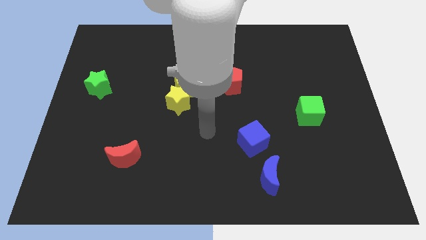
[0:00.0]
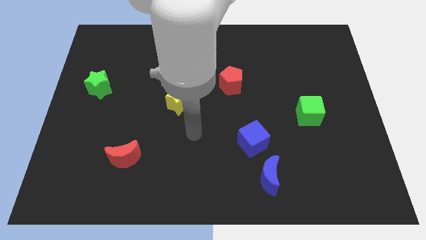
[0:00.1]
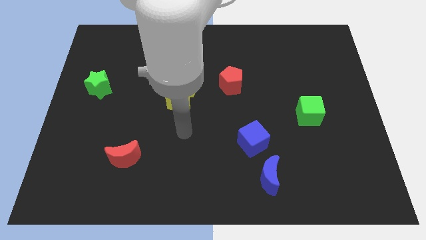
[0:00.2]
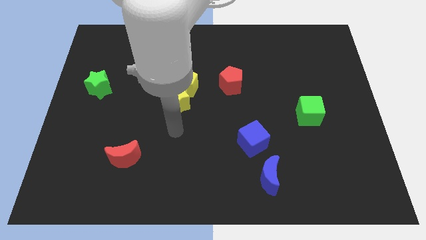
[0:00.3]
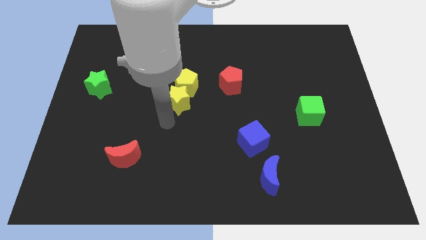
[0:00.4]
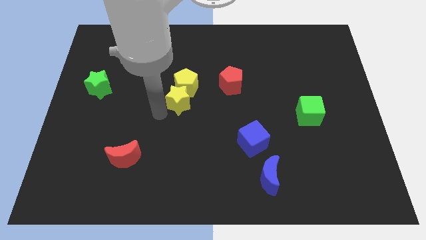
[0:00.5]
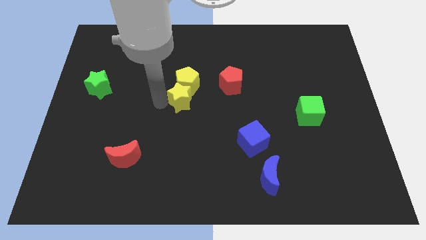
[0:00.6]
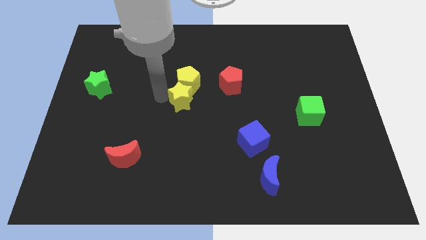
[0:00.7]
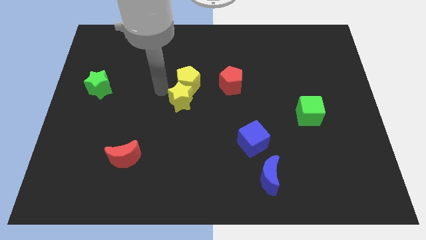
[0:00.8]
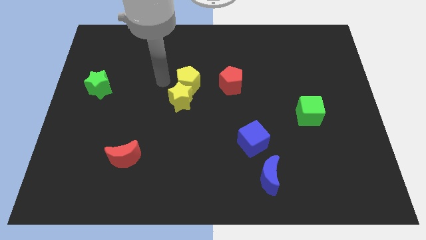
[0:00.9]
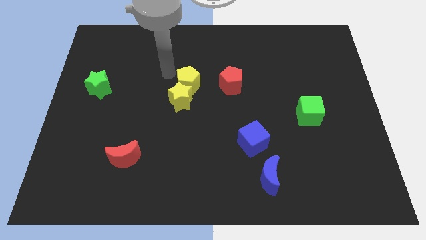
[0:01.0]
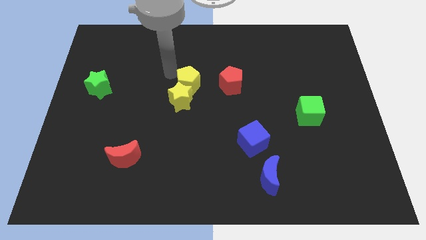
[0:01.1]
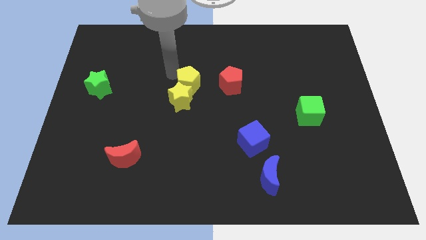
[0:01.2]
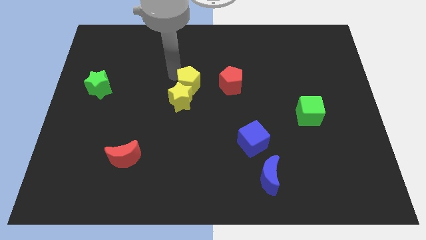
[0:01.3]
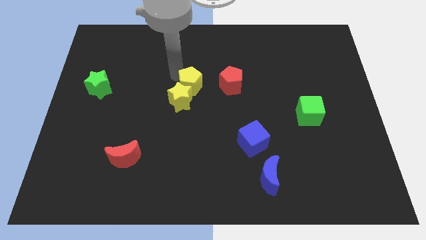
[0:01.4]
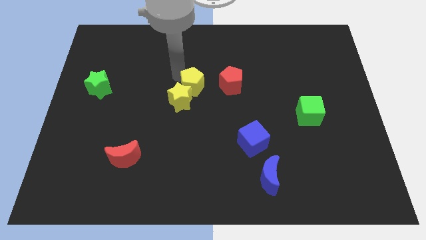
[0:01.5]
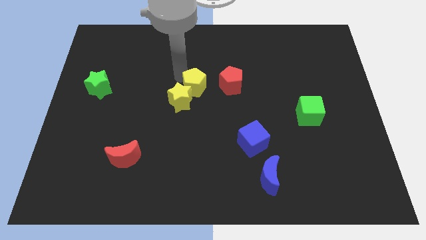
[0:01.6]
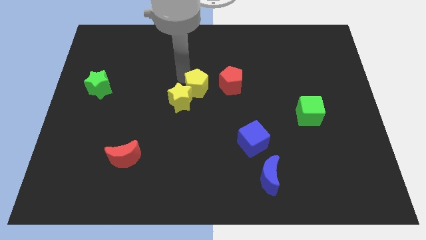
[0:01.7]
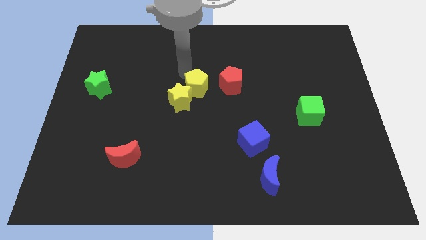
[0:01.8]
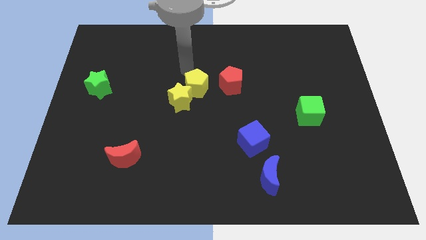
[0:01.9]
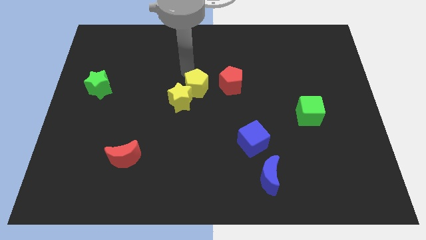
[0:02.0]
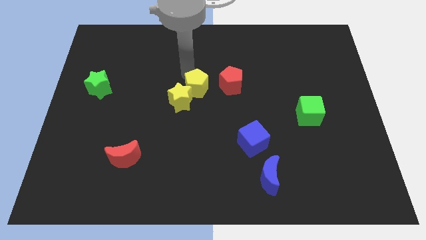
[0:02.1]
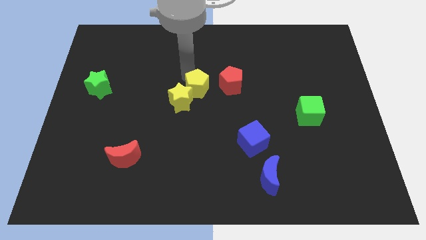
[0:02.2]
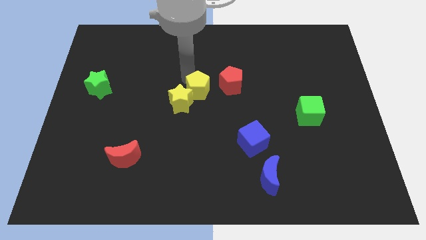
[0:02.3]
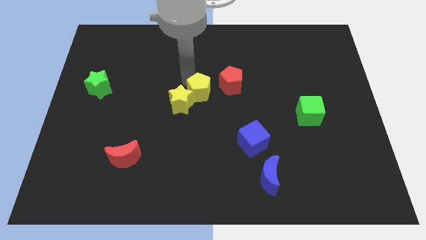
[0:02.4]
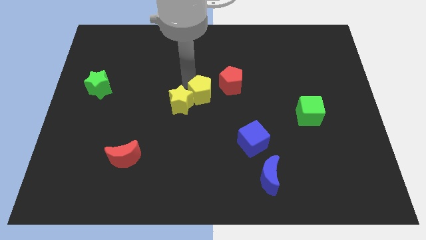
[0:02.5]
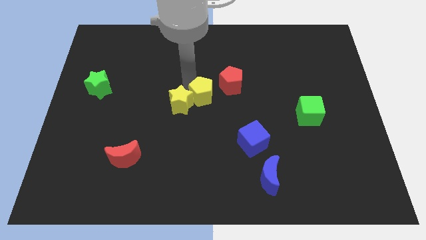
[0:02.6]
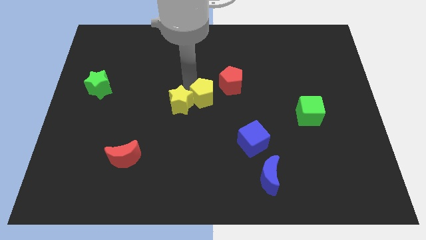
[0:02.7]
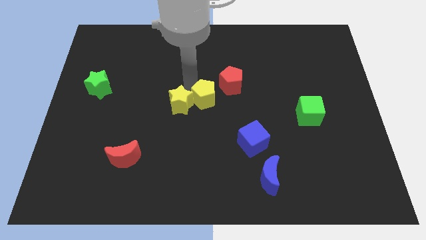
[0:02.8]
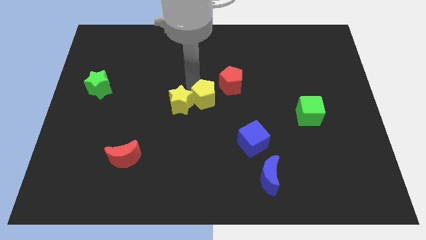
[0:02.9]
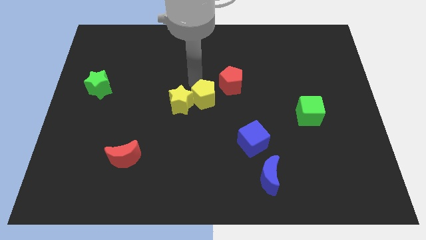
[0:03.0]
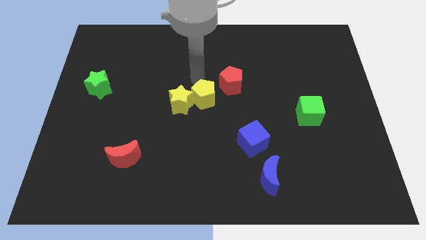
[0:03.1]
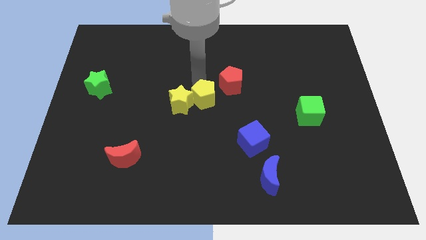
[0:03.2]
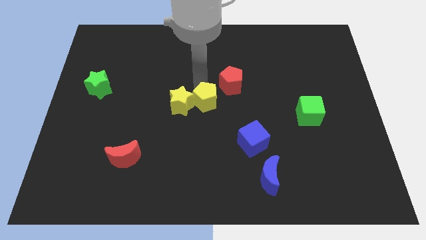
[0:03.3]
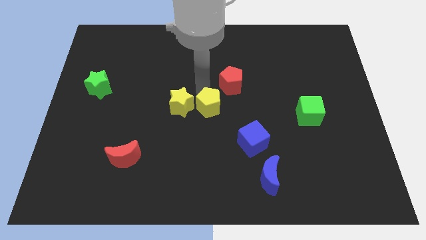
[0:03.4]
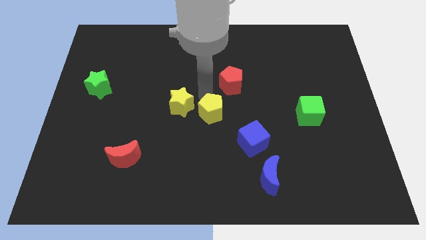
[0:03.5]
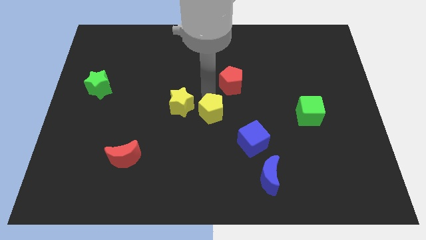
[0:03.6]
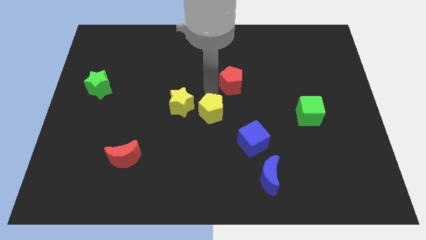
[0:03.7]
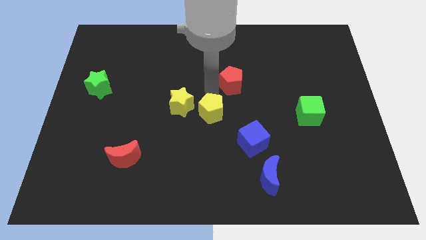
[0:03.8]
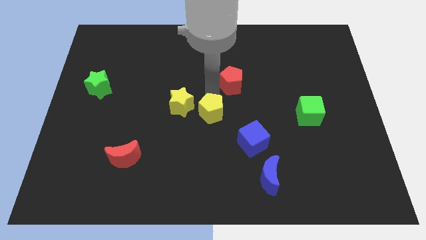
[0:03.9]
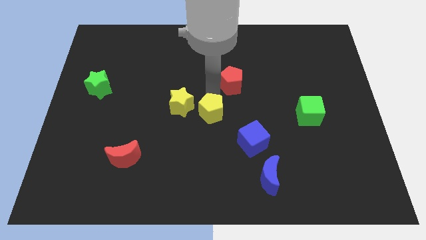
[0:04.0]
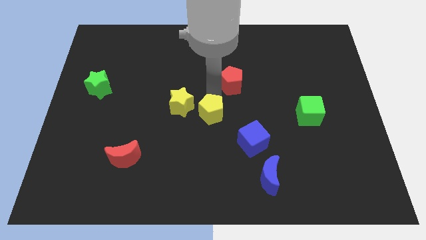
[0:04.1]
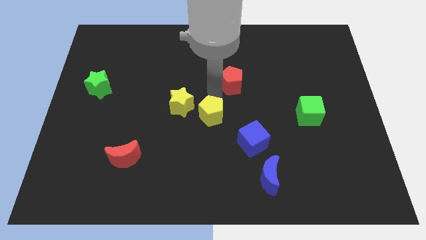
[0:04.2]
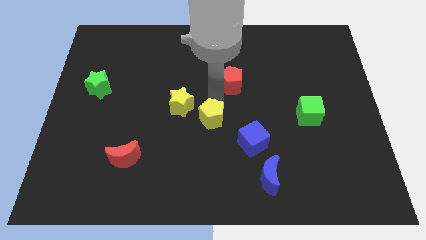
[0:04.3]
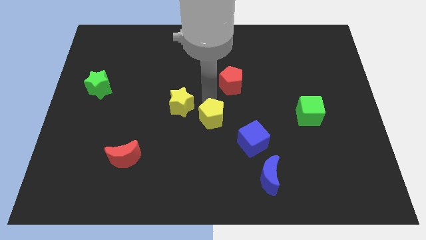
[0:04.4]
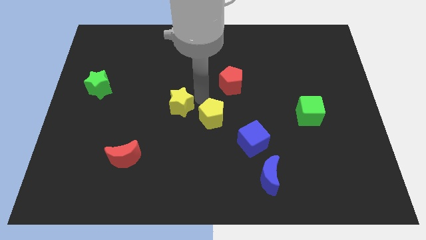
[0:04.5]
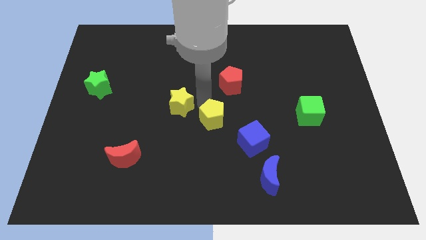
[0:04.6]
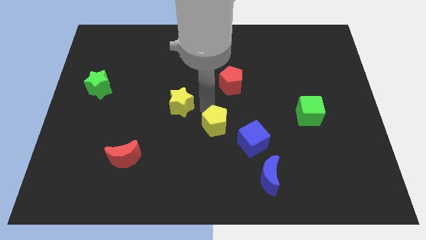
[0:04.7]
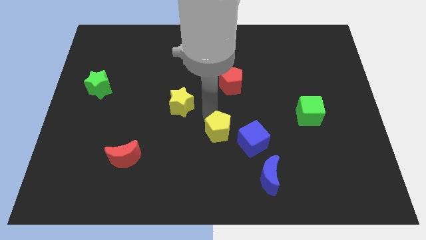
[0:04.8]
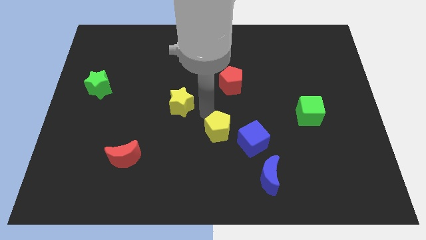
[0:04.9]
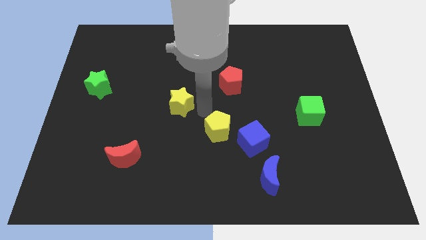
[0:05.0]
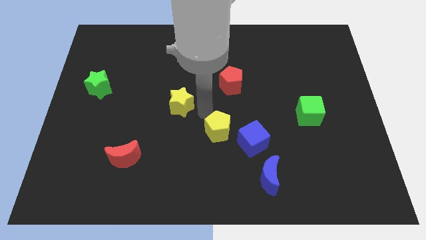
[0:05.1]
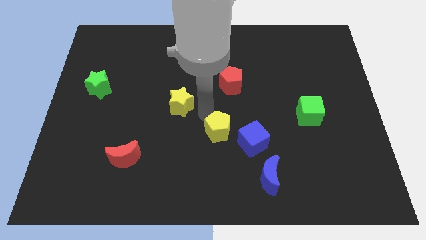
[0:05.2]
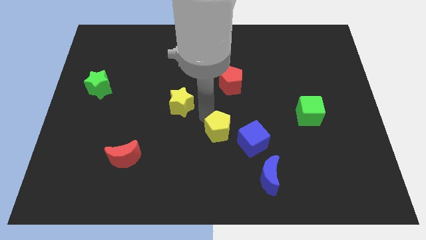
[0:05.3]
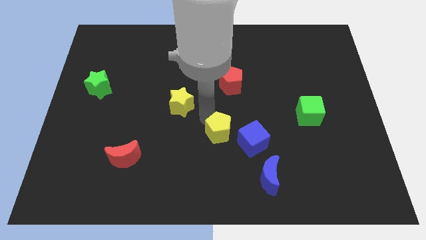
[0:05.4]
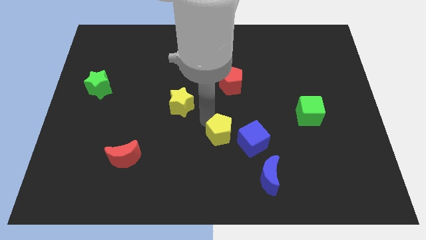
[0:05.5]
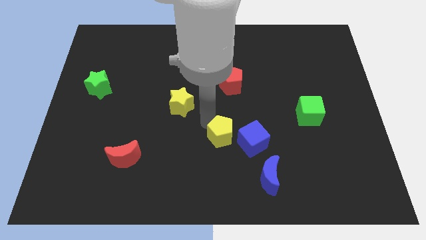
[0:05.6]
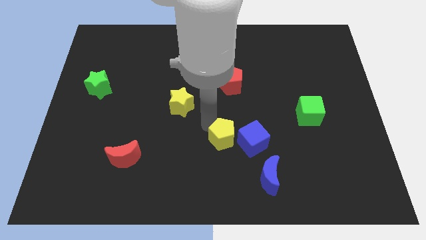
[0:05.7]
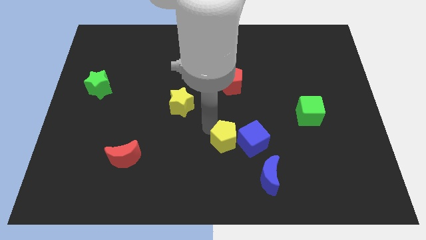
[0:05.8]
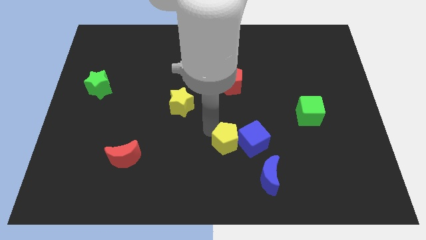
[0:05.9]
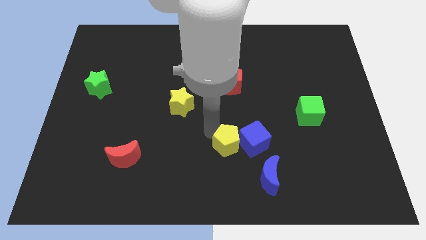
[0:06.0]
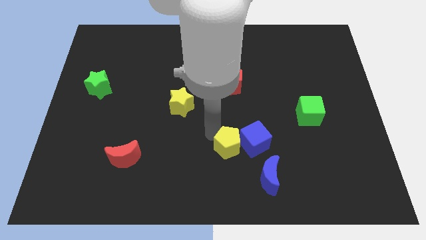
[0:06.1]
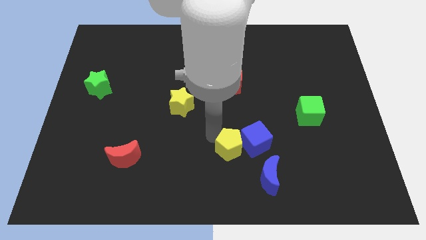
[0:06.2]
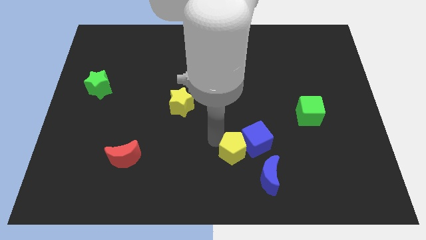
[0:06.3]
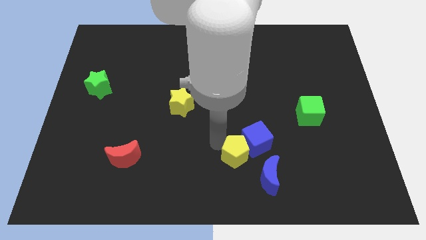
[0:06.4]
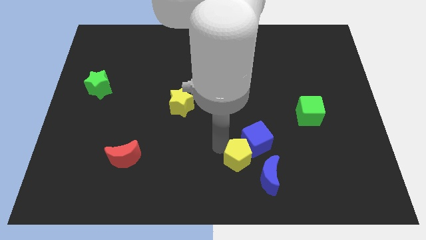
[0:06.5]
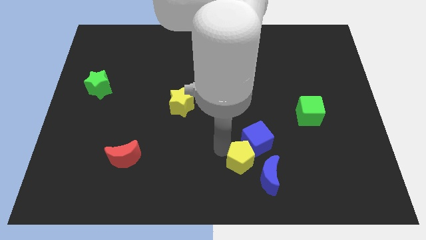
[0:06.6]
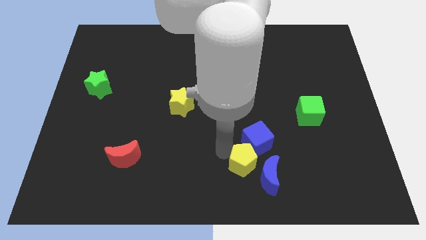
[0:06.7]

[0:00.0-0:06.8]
put the yellow pentagon to the blue moon

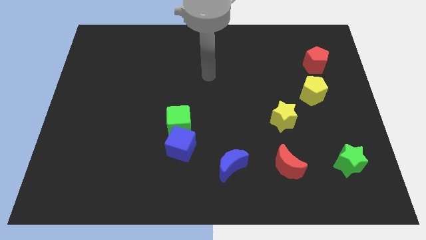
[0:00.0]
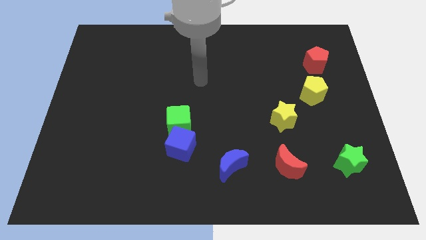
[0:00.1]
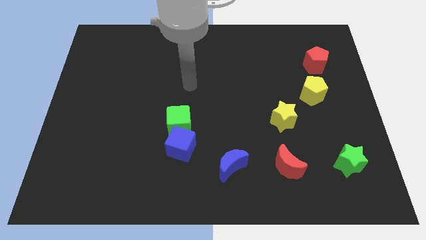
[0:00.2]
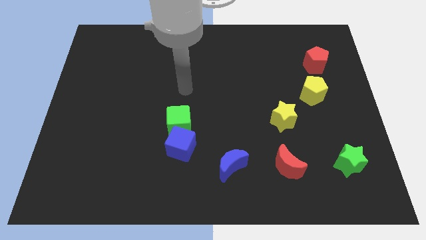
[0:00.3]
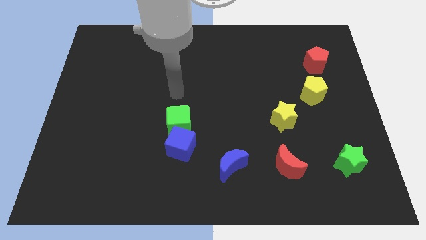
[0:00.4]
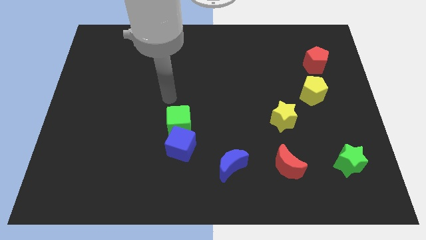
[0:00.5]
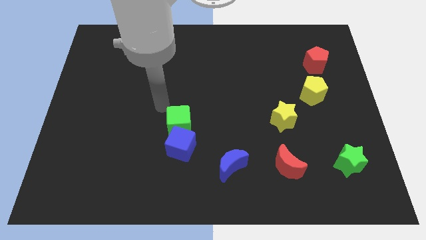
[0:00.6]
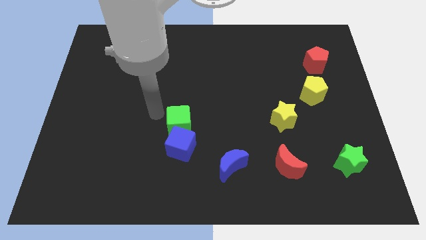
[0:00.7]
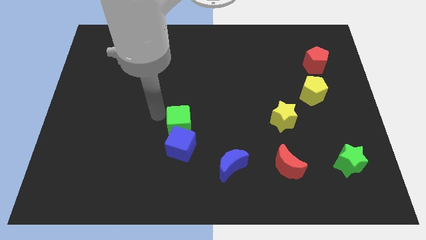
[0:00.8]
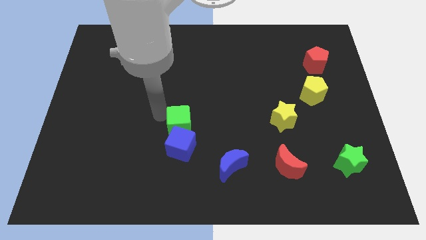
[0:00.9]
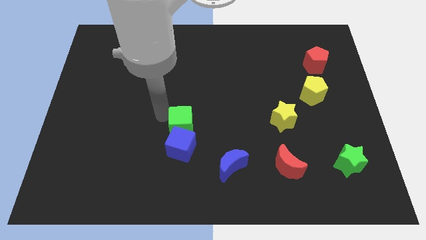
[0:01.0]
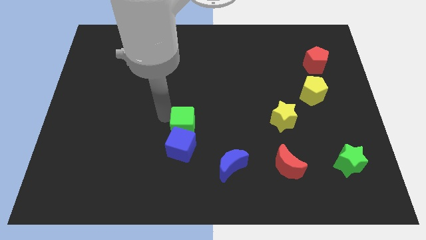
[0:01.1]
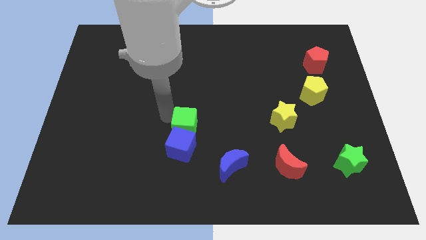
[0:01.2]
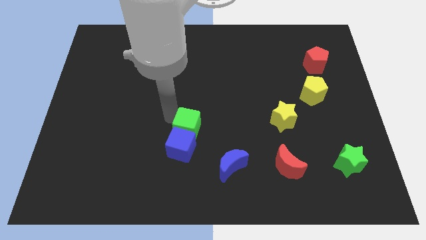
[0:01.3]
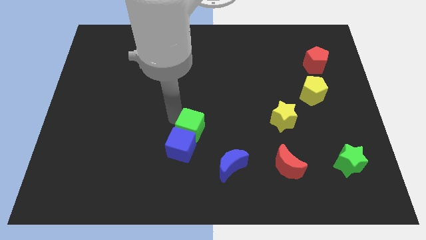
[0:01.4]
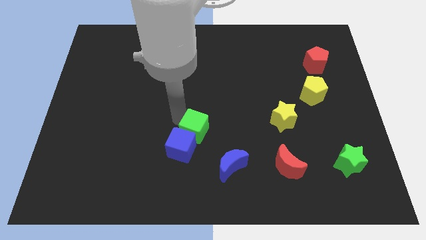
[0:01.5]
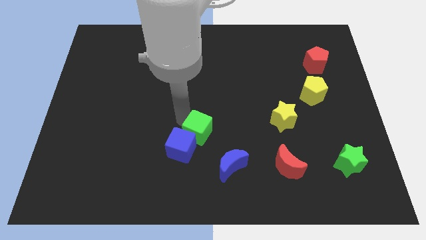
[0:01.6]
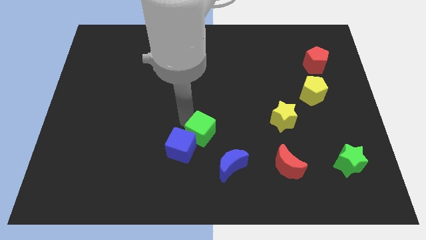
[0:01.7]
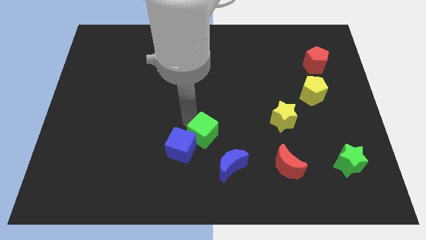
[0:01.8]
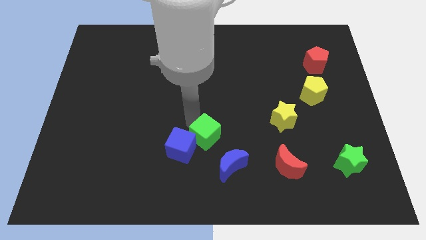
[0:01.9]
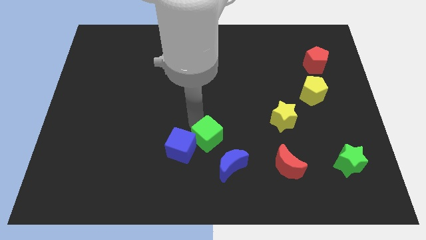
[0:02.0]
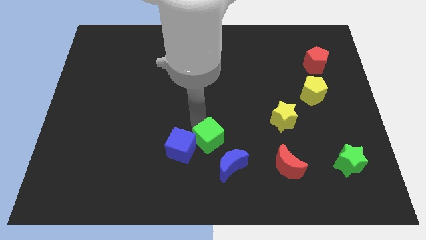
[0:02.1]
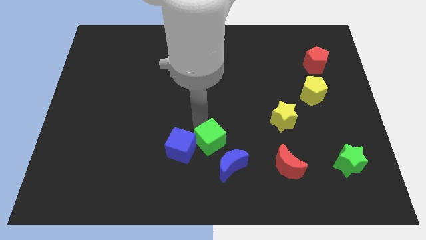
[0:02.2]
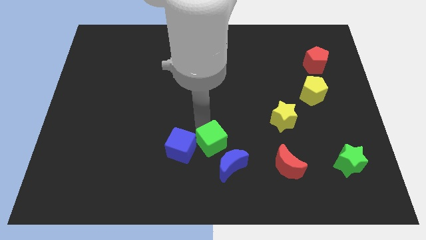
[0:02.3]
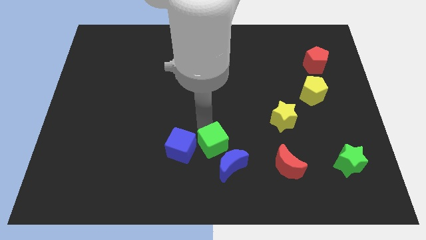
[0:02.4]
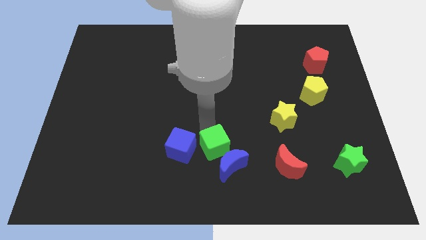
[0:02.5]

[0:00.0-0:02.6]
put the green cube to the blue moon
